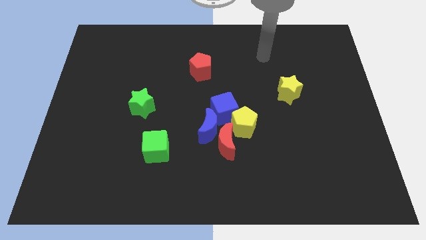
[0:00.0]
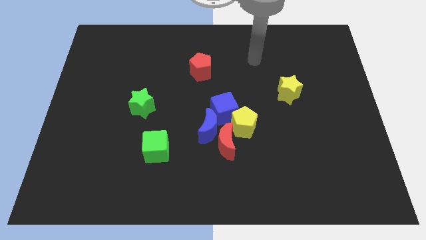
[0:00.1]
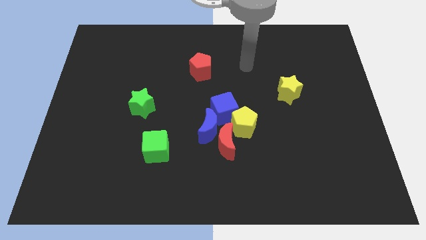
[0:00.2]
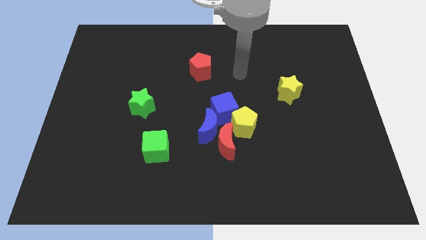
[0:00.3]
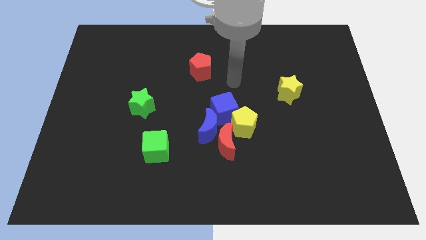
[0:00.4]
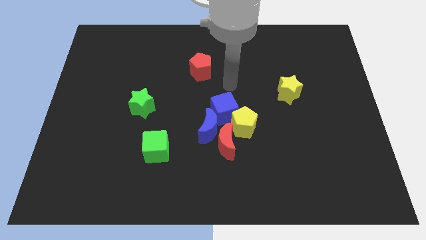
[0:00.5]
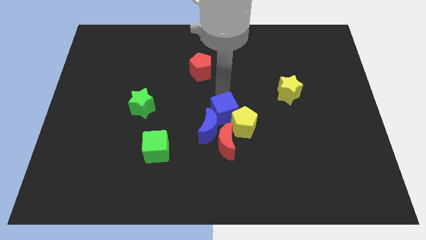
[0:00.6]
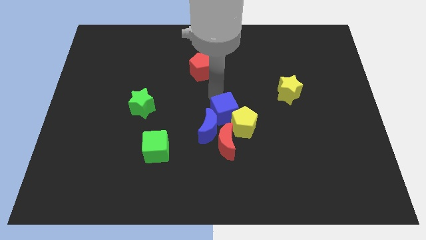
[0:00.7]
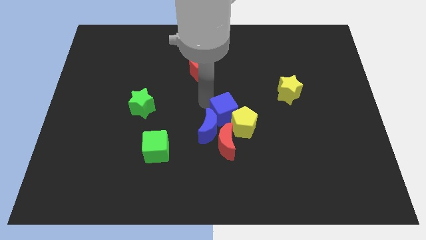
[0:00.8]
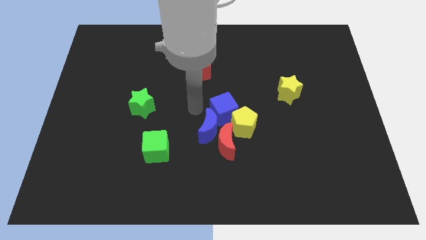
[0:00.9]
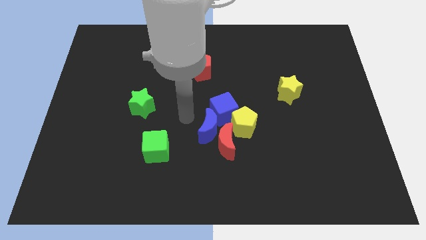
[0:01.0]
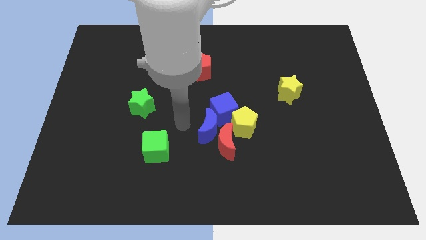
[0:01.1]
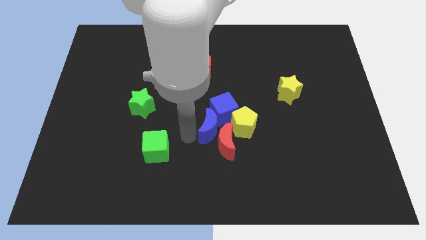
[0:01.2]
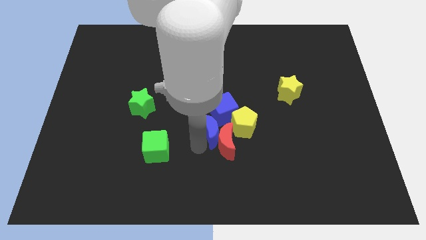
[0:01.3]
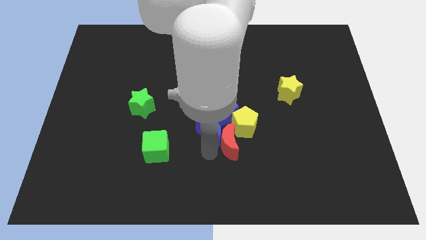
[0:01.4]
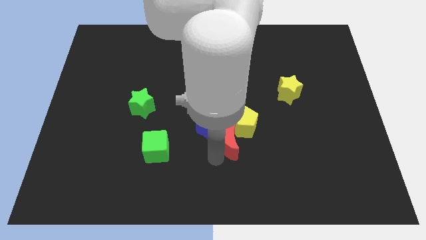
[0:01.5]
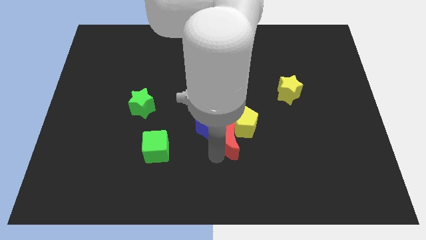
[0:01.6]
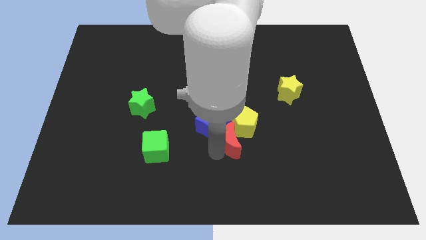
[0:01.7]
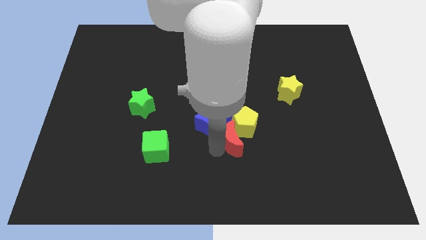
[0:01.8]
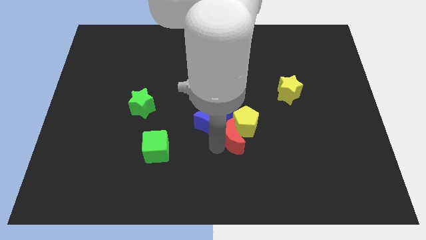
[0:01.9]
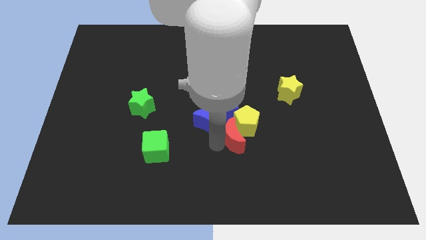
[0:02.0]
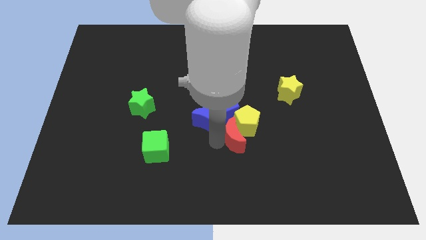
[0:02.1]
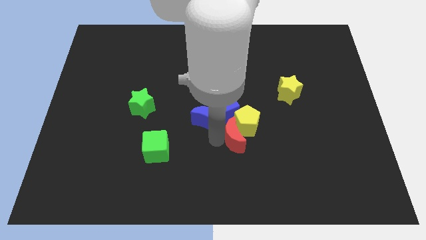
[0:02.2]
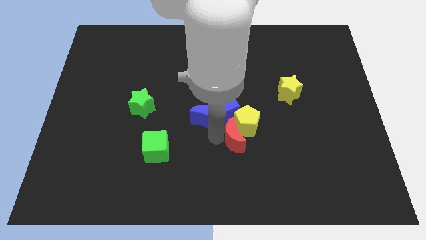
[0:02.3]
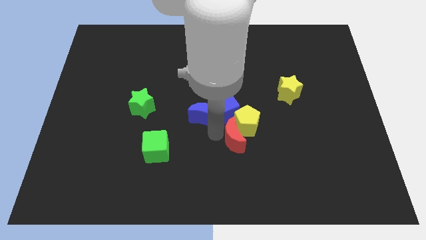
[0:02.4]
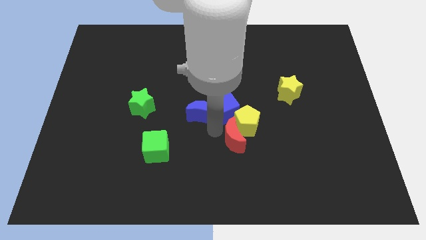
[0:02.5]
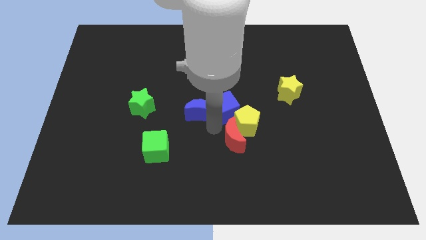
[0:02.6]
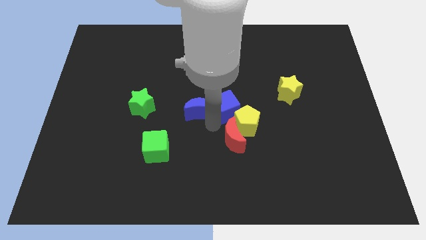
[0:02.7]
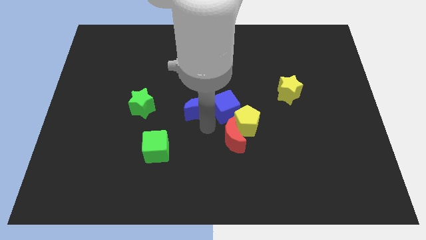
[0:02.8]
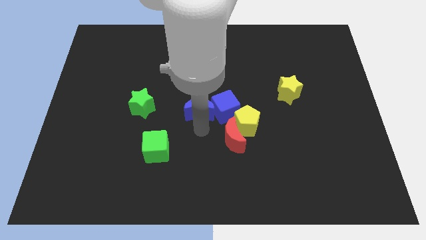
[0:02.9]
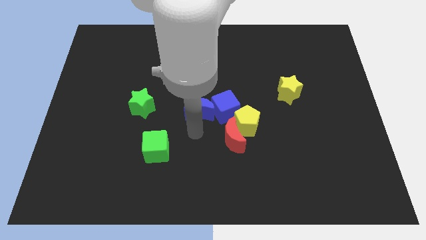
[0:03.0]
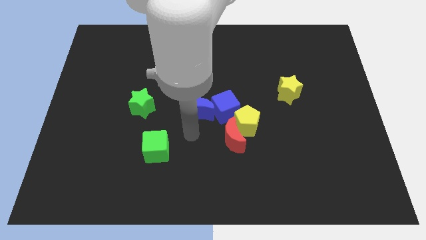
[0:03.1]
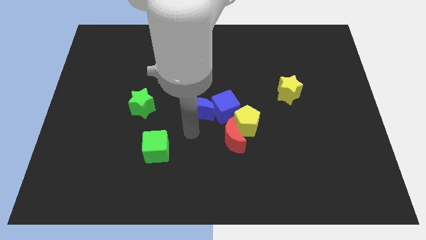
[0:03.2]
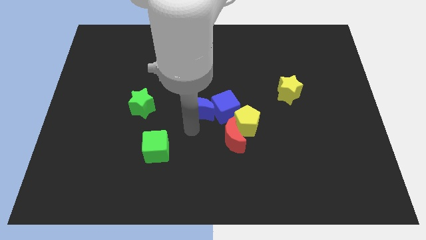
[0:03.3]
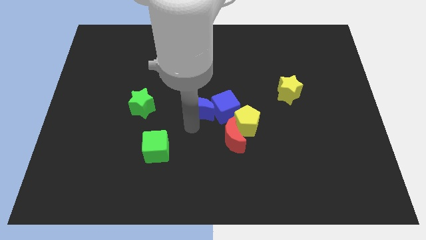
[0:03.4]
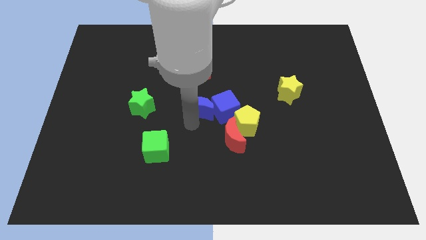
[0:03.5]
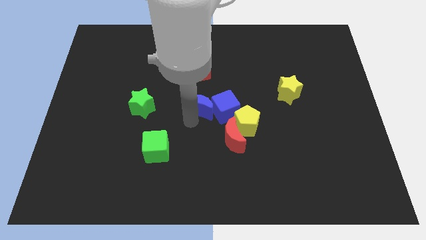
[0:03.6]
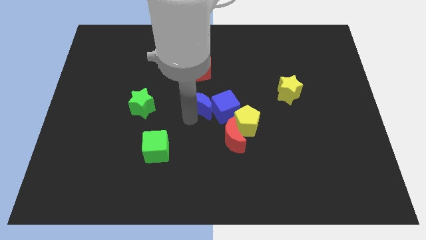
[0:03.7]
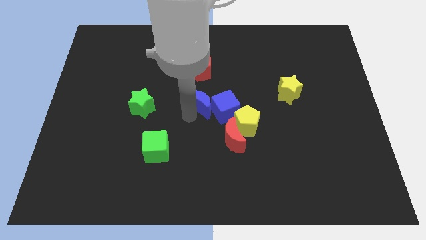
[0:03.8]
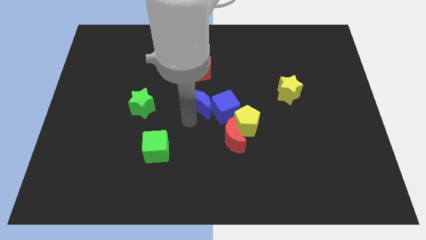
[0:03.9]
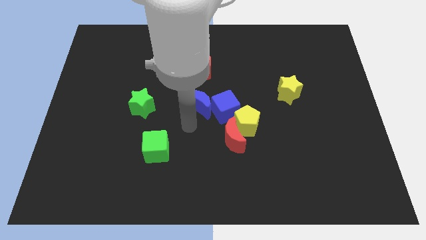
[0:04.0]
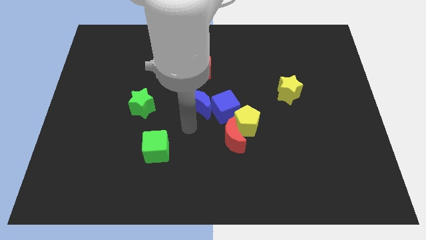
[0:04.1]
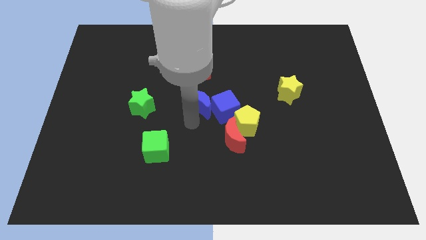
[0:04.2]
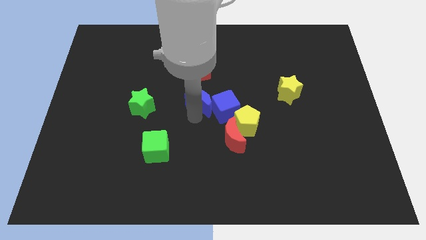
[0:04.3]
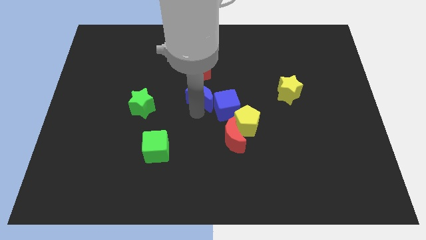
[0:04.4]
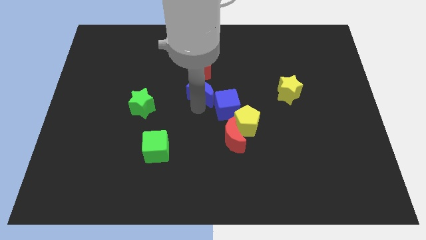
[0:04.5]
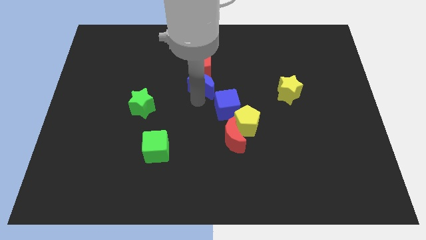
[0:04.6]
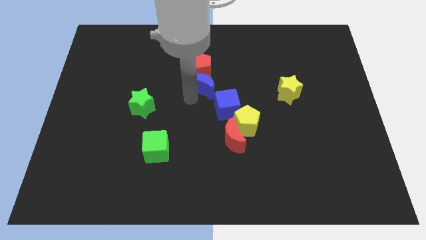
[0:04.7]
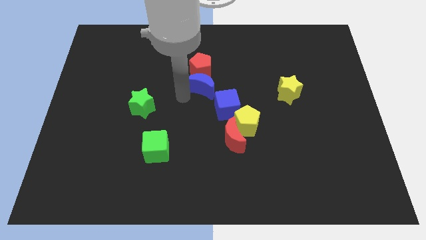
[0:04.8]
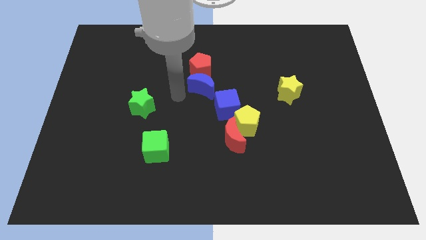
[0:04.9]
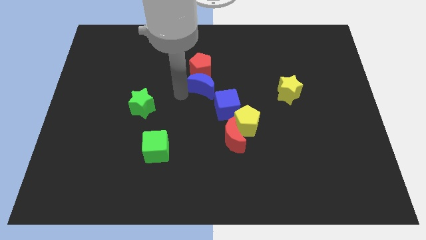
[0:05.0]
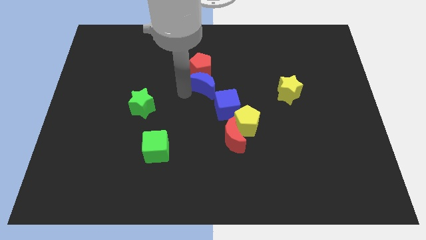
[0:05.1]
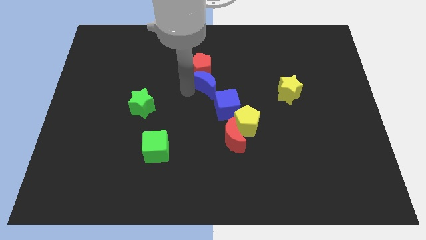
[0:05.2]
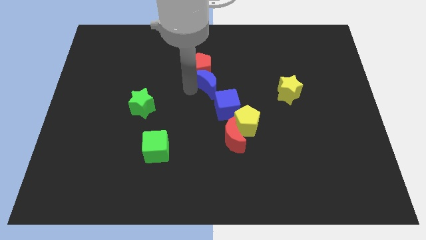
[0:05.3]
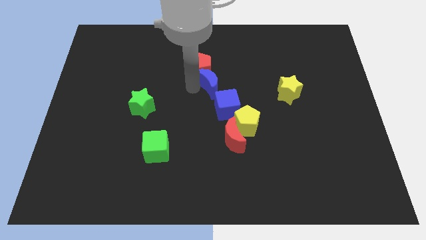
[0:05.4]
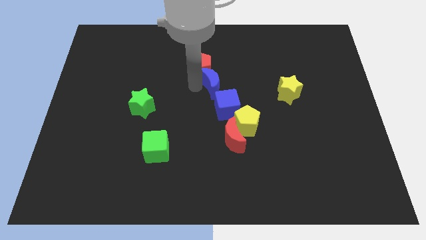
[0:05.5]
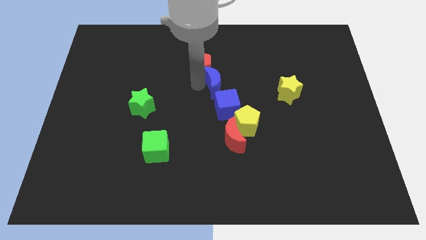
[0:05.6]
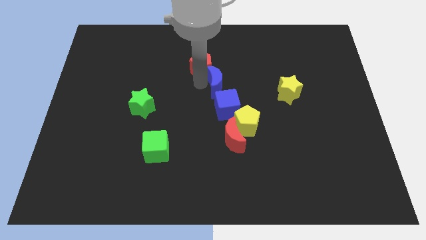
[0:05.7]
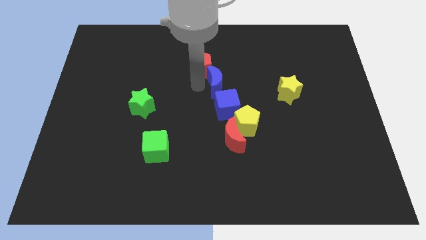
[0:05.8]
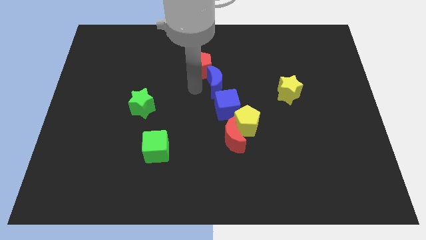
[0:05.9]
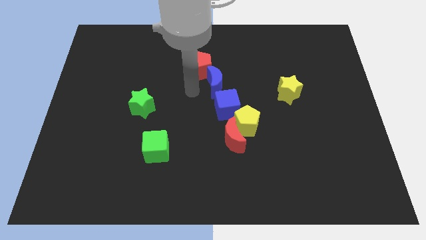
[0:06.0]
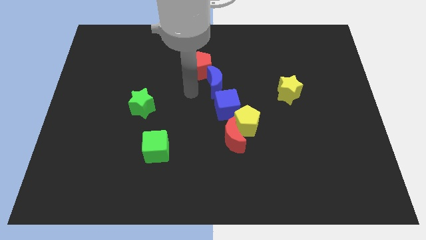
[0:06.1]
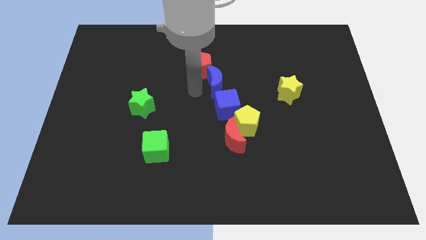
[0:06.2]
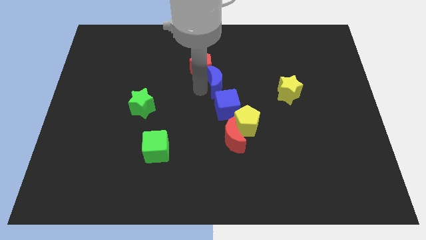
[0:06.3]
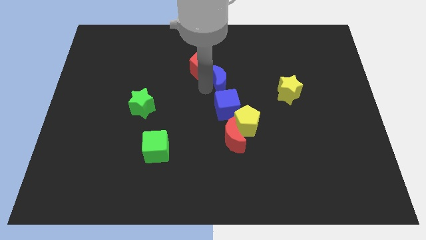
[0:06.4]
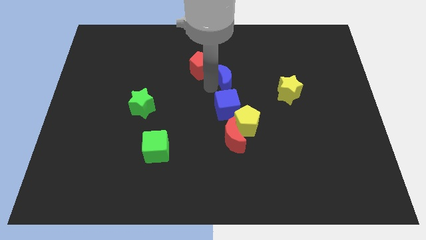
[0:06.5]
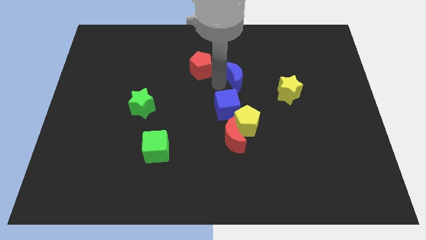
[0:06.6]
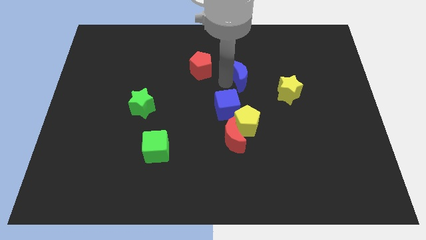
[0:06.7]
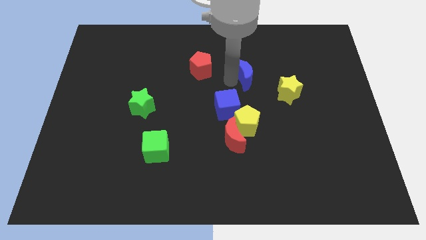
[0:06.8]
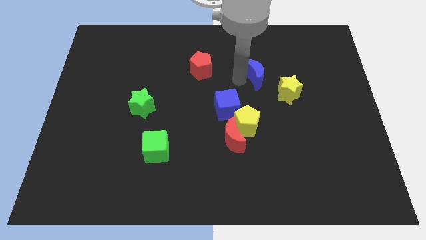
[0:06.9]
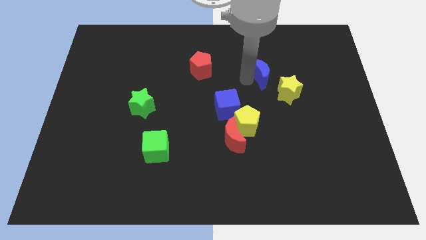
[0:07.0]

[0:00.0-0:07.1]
push the blue moon upwards and right diagonally

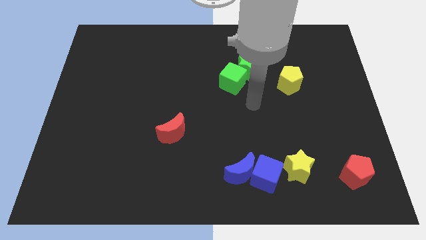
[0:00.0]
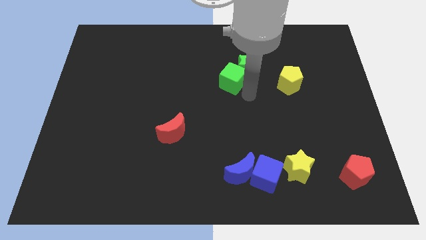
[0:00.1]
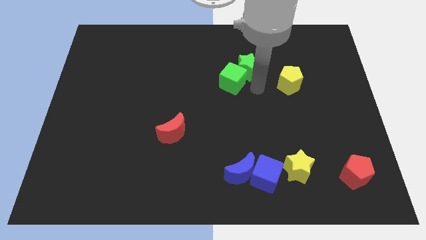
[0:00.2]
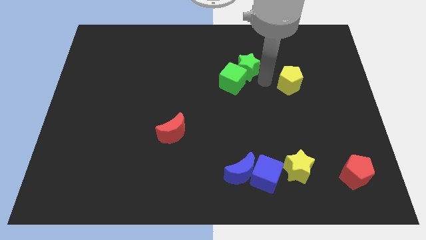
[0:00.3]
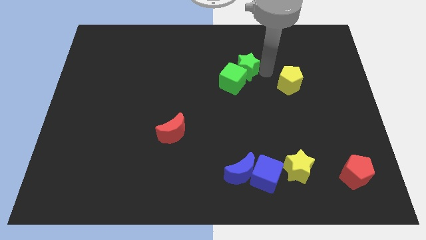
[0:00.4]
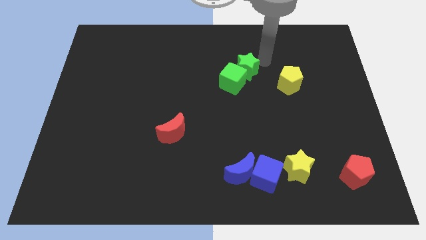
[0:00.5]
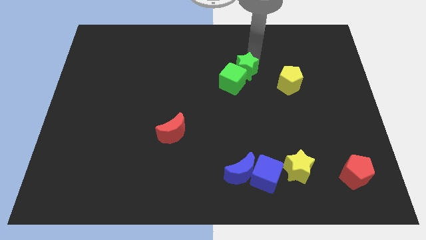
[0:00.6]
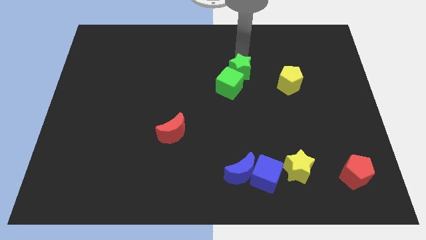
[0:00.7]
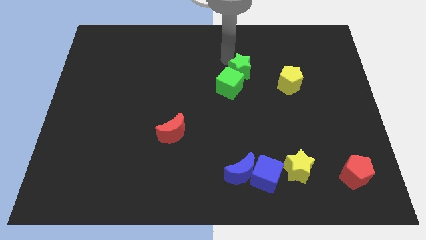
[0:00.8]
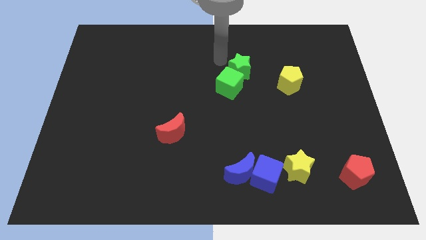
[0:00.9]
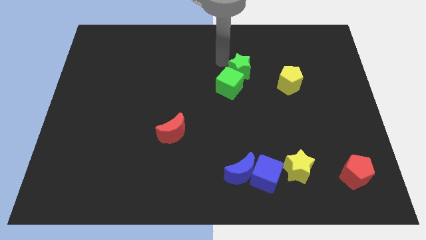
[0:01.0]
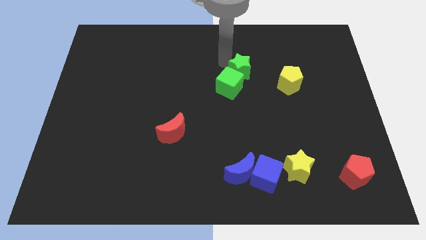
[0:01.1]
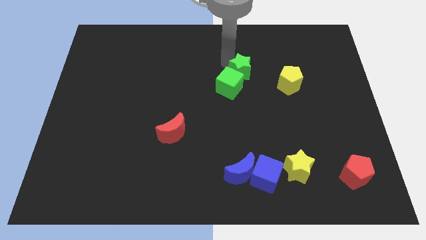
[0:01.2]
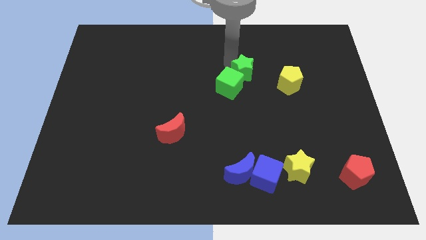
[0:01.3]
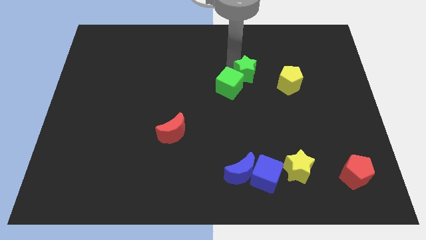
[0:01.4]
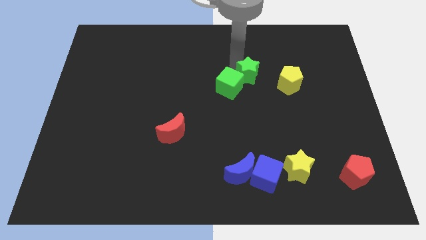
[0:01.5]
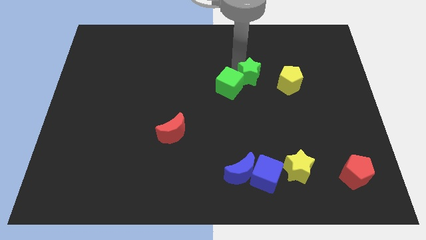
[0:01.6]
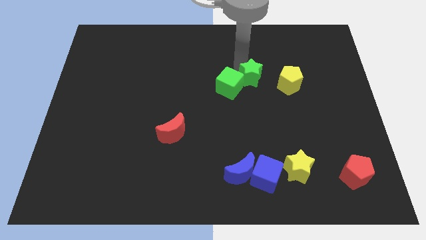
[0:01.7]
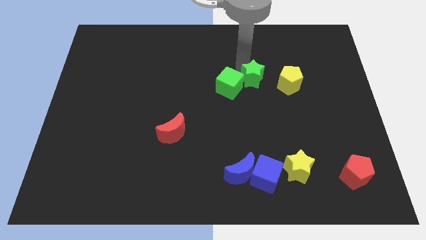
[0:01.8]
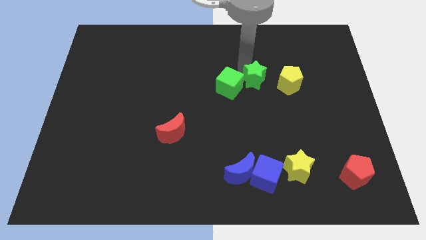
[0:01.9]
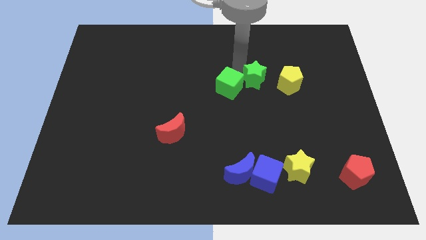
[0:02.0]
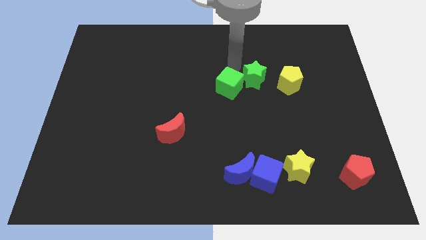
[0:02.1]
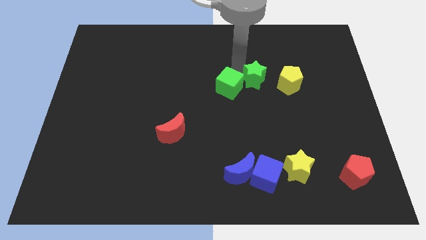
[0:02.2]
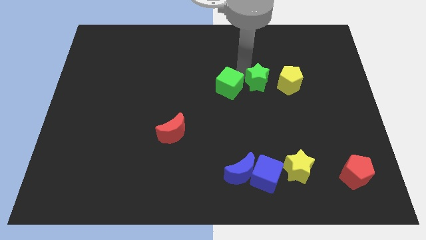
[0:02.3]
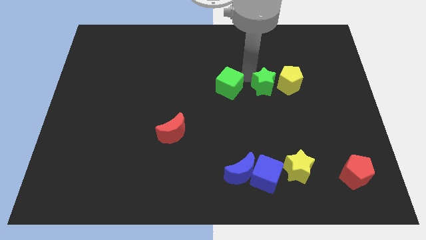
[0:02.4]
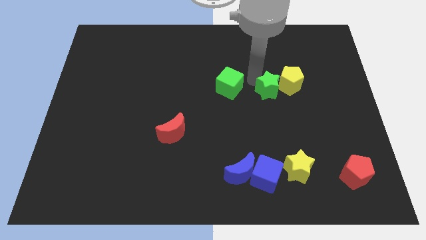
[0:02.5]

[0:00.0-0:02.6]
slightly move the green star downwards and right
